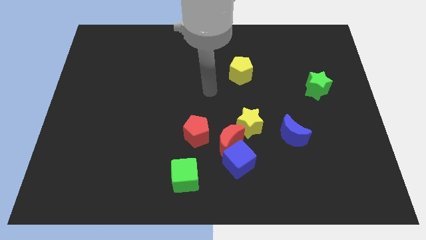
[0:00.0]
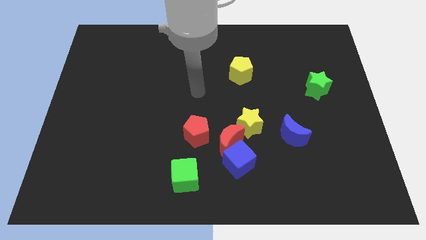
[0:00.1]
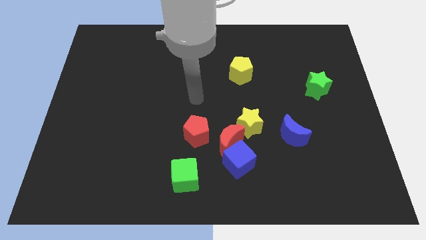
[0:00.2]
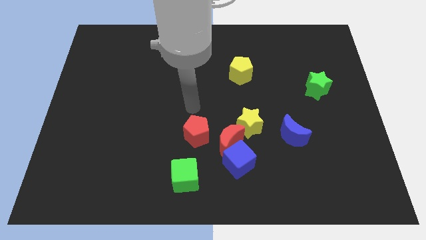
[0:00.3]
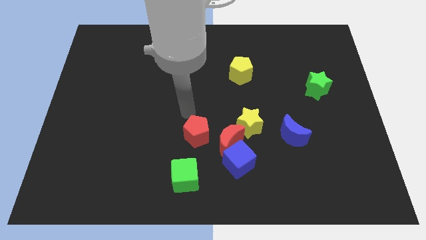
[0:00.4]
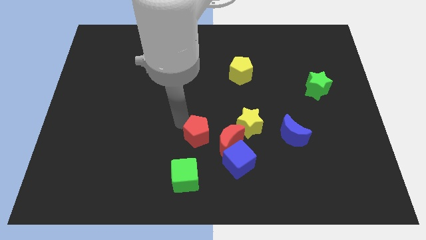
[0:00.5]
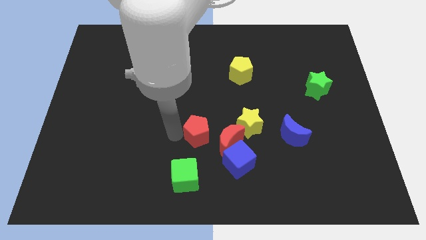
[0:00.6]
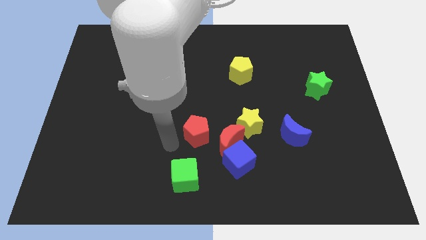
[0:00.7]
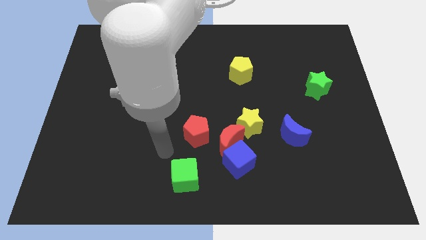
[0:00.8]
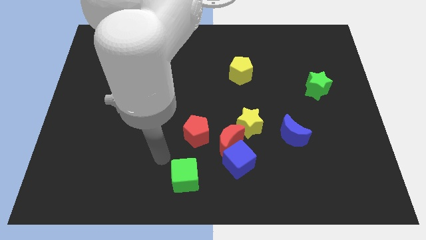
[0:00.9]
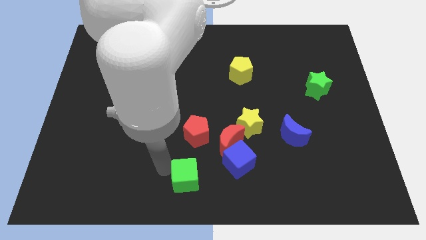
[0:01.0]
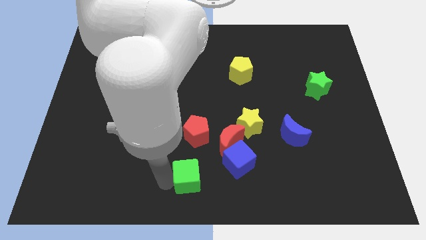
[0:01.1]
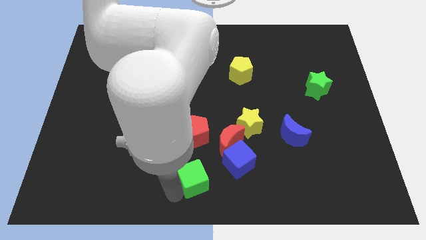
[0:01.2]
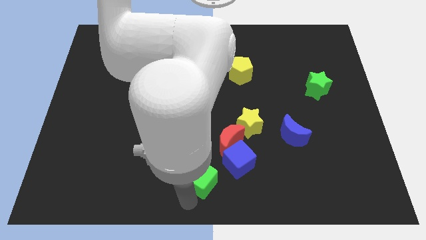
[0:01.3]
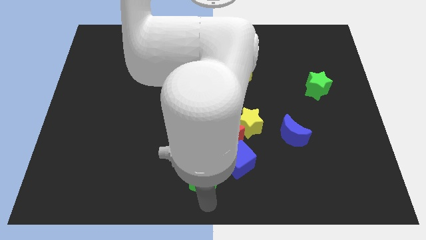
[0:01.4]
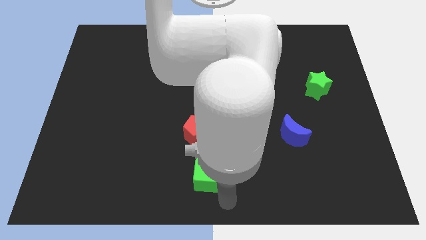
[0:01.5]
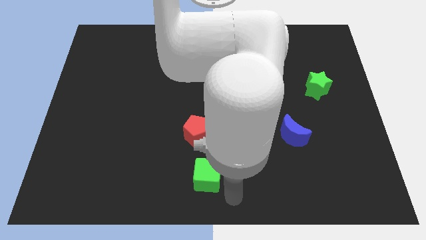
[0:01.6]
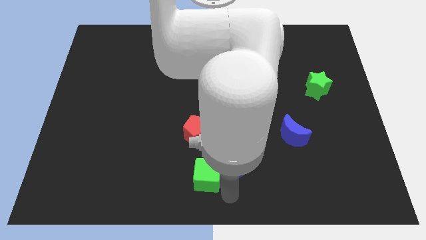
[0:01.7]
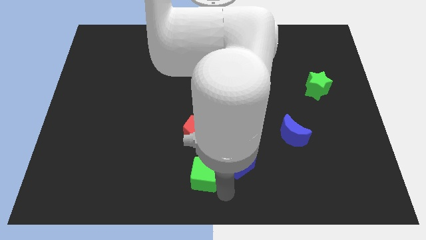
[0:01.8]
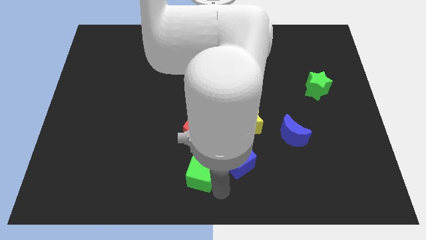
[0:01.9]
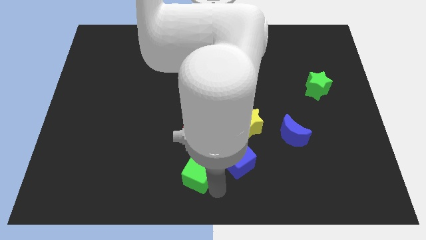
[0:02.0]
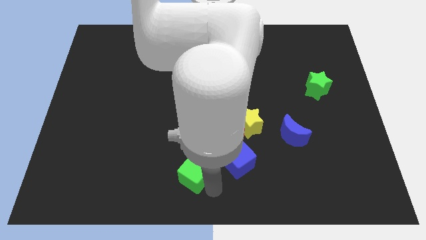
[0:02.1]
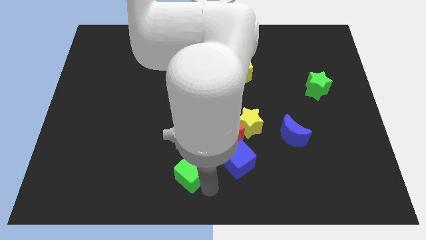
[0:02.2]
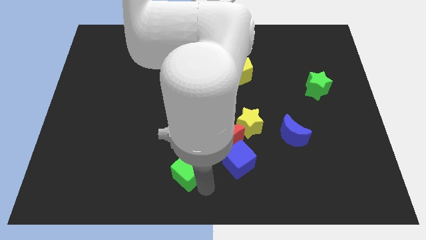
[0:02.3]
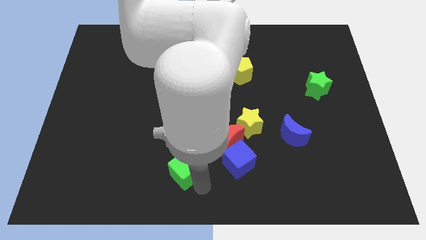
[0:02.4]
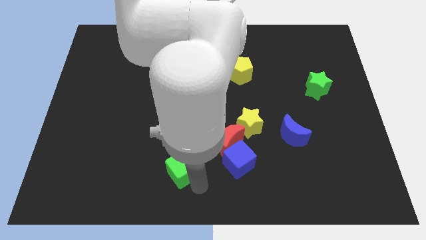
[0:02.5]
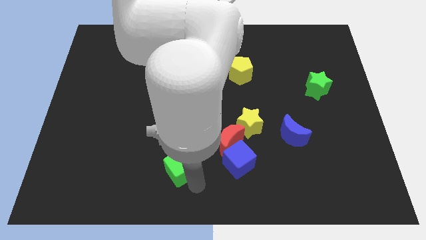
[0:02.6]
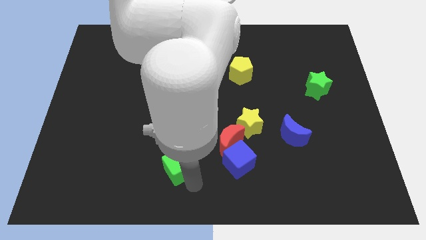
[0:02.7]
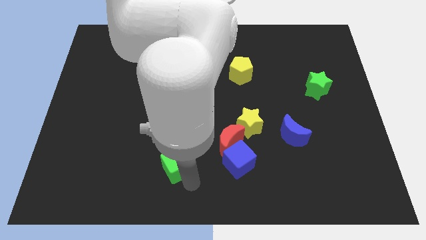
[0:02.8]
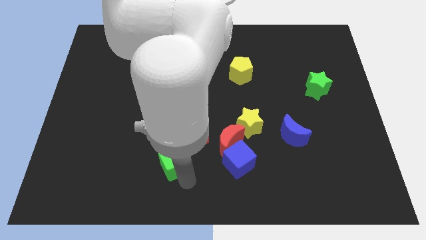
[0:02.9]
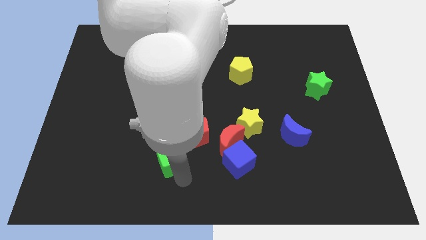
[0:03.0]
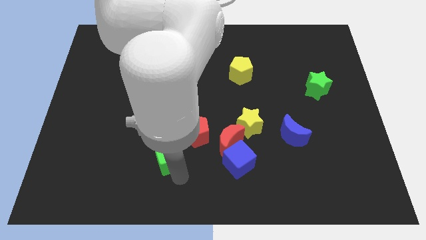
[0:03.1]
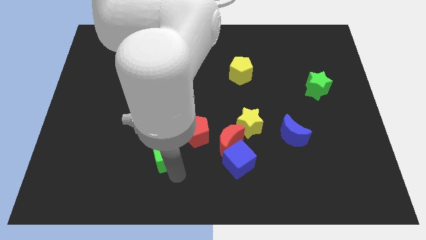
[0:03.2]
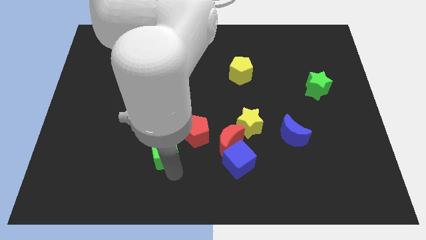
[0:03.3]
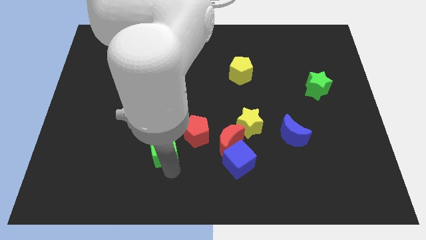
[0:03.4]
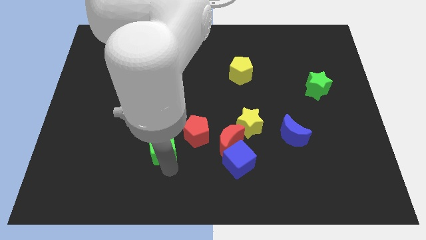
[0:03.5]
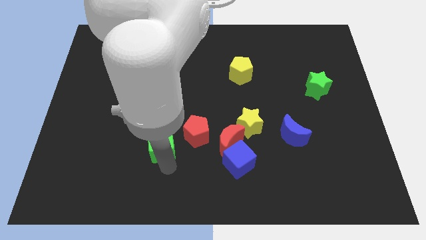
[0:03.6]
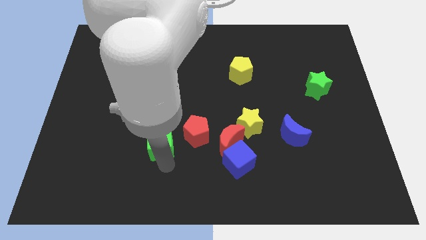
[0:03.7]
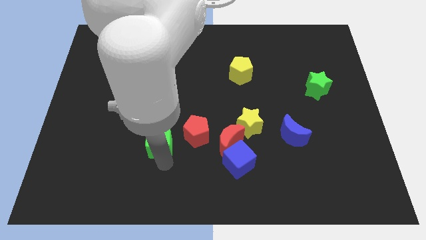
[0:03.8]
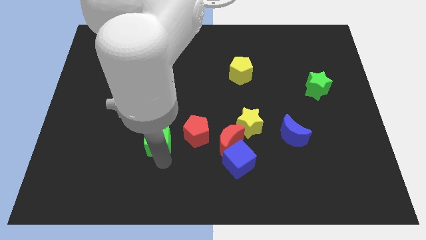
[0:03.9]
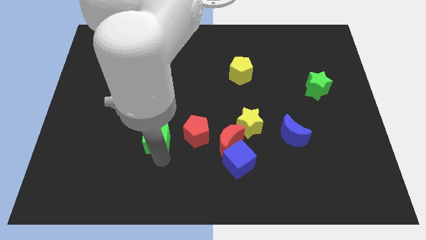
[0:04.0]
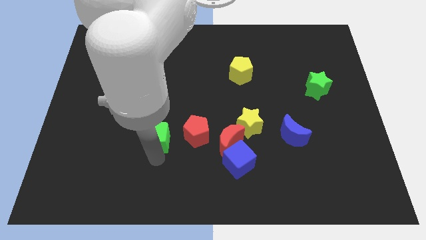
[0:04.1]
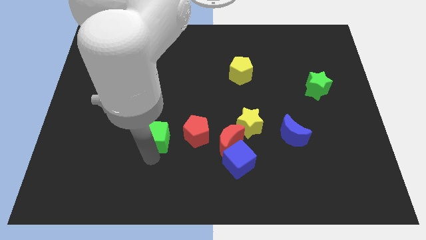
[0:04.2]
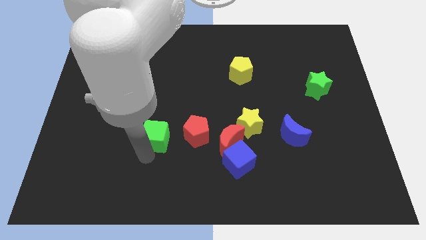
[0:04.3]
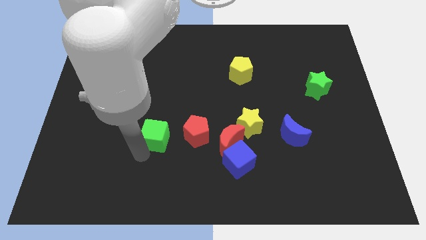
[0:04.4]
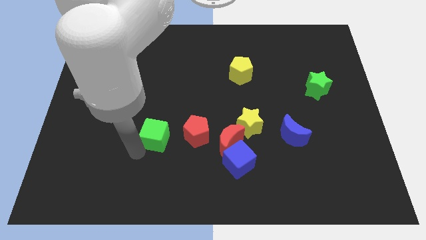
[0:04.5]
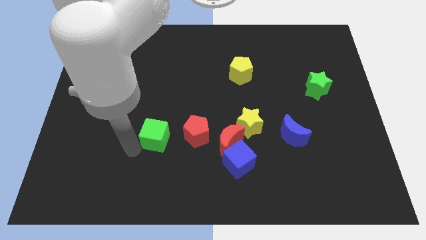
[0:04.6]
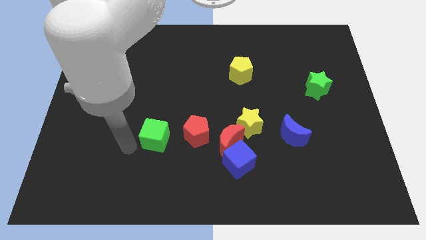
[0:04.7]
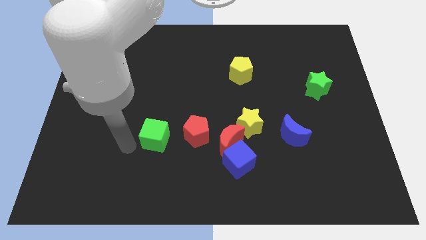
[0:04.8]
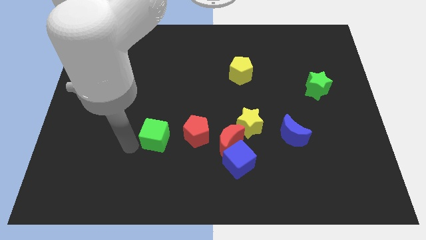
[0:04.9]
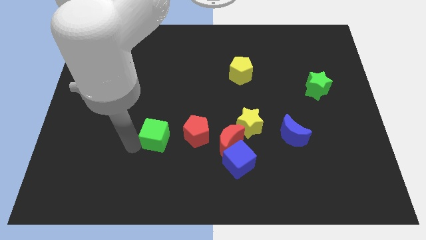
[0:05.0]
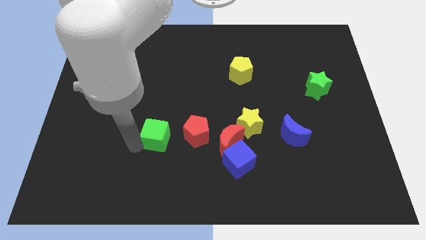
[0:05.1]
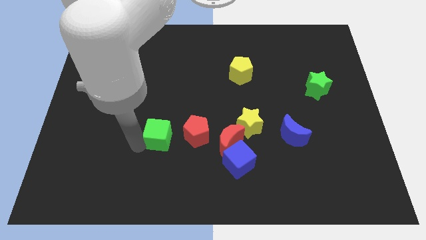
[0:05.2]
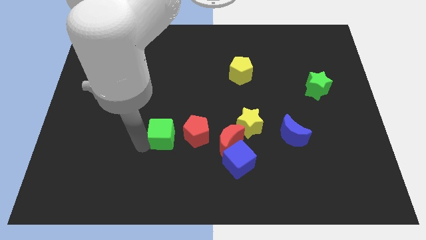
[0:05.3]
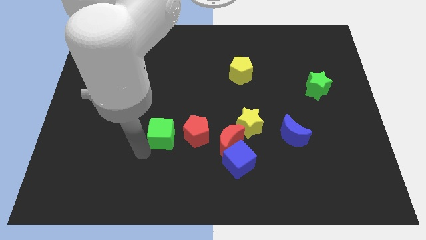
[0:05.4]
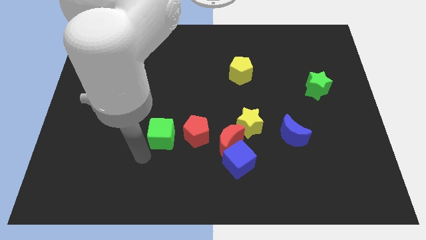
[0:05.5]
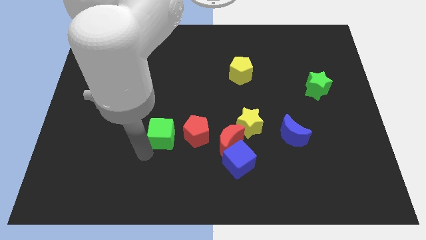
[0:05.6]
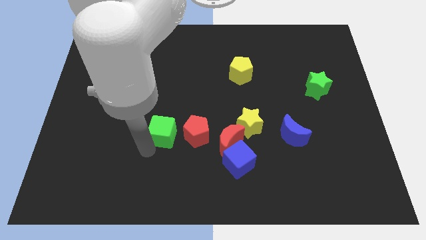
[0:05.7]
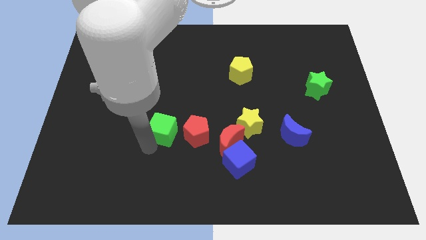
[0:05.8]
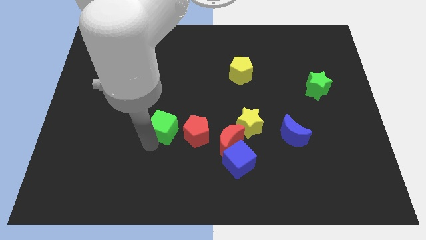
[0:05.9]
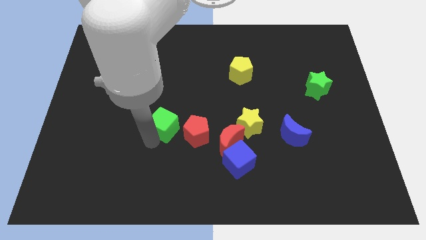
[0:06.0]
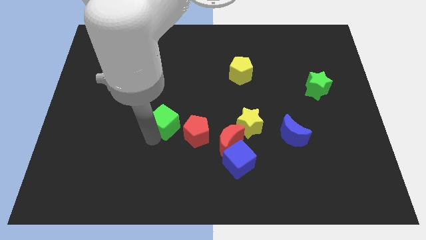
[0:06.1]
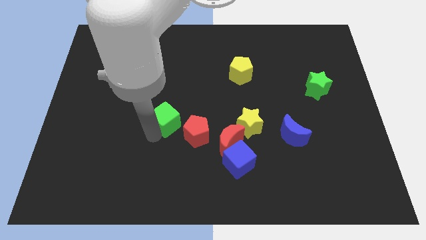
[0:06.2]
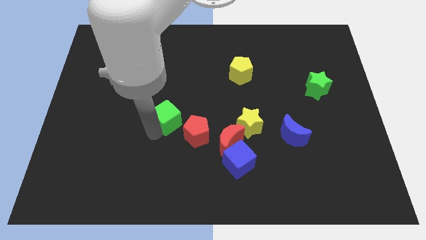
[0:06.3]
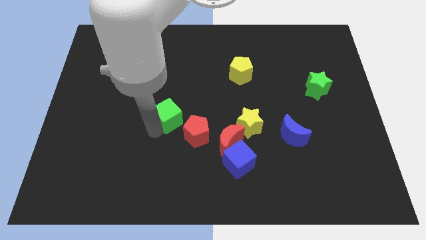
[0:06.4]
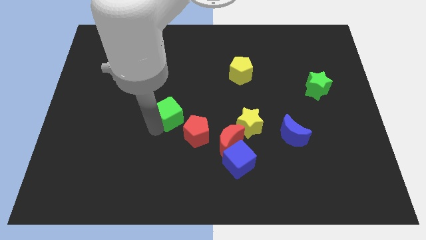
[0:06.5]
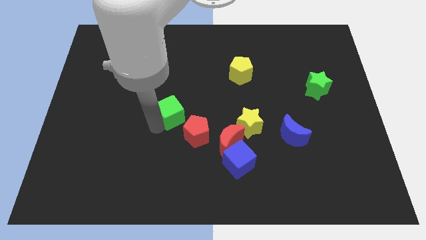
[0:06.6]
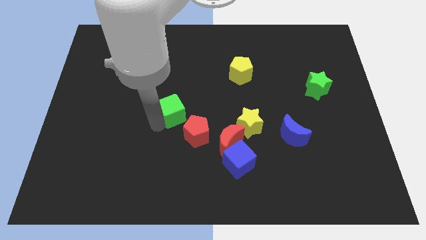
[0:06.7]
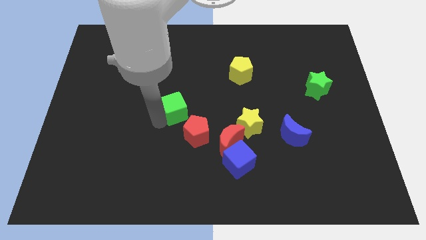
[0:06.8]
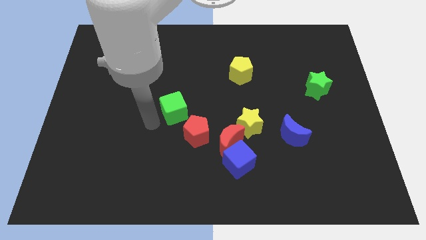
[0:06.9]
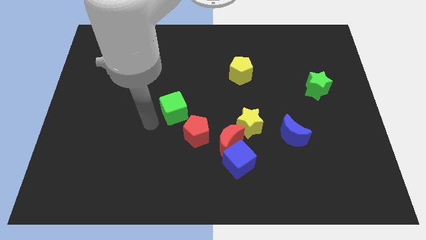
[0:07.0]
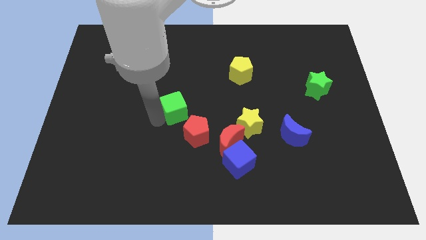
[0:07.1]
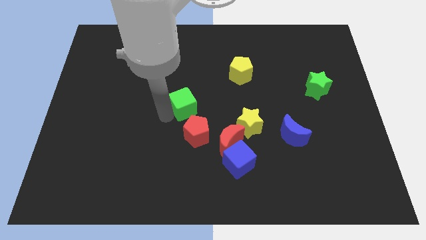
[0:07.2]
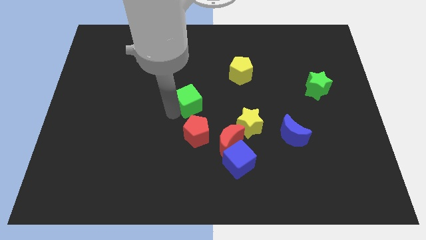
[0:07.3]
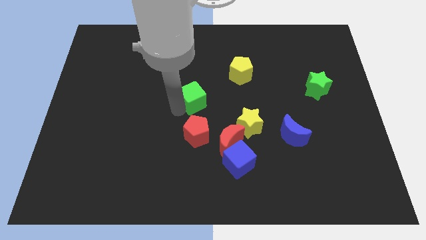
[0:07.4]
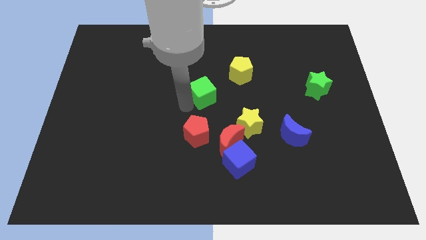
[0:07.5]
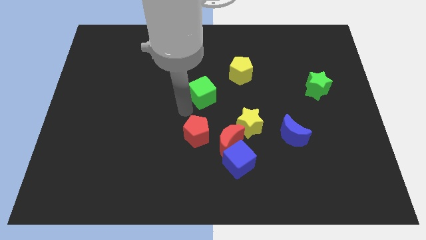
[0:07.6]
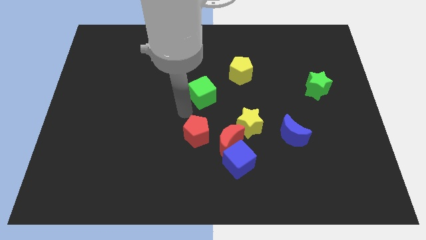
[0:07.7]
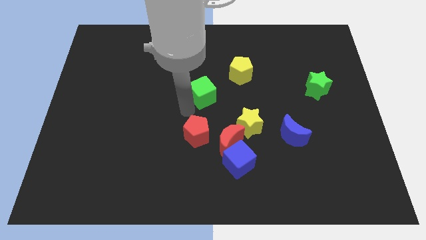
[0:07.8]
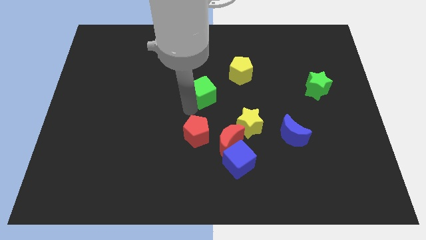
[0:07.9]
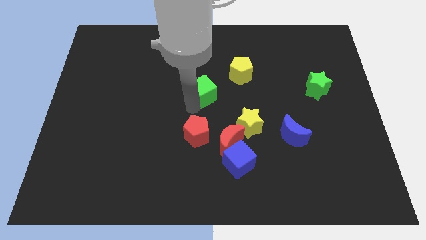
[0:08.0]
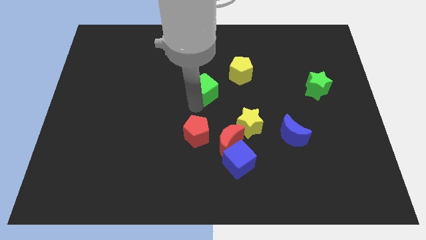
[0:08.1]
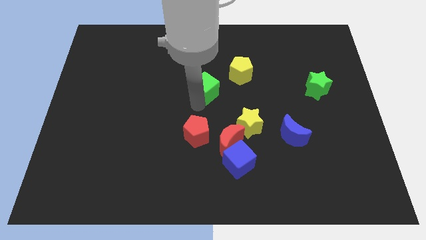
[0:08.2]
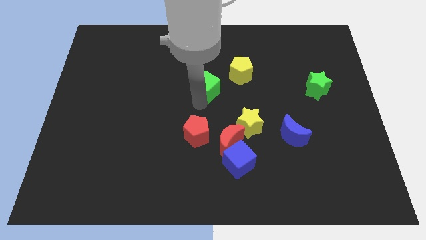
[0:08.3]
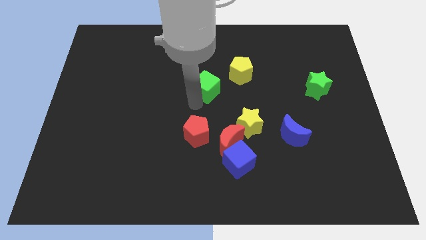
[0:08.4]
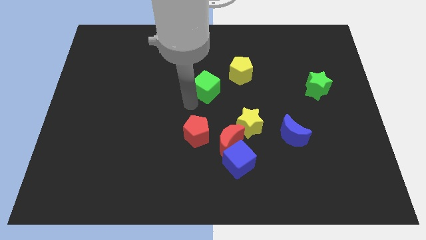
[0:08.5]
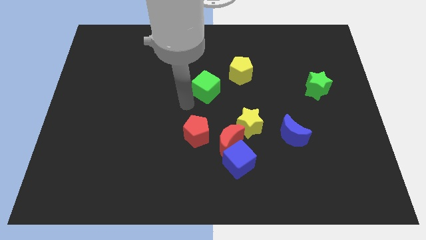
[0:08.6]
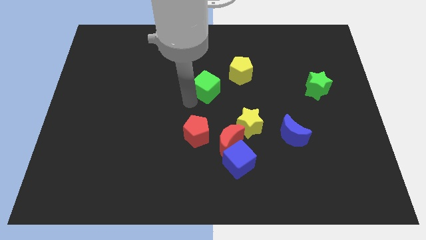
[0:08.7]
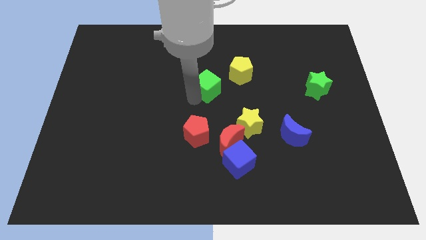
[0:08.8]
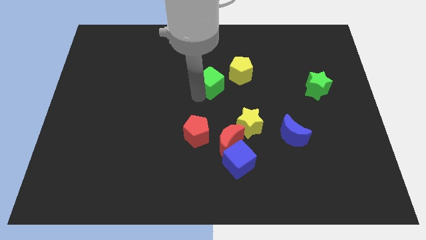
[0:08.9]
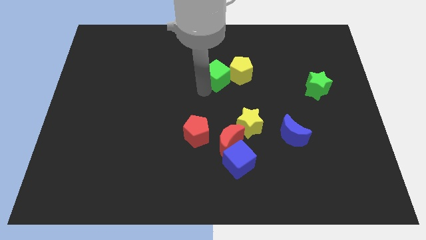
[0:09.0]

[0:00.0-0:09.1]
put the green cube next to the yellow pentagon
